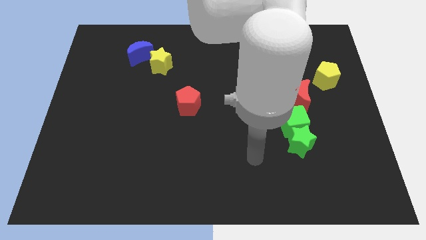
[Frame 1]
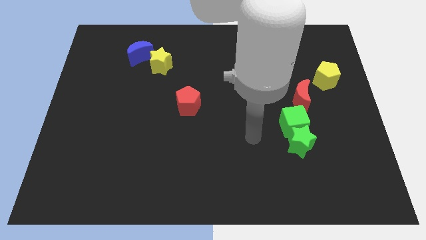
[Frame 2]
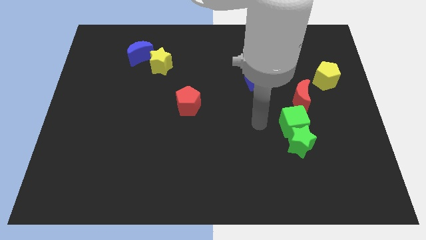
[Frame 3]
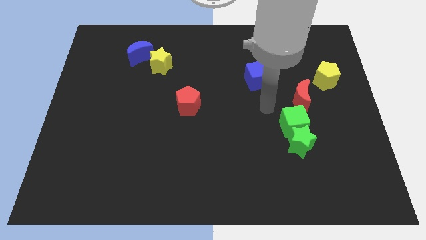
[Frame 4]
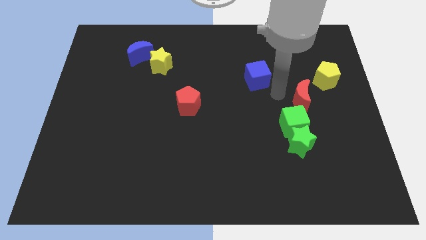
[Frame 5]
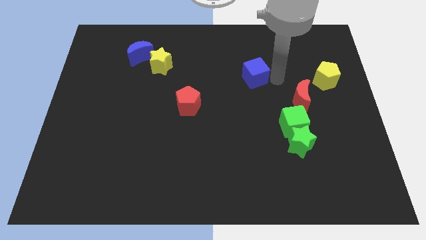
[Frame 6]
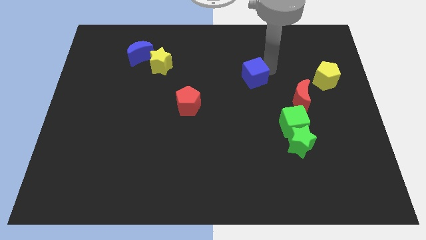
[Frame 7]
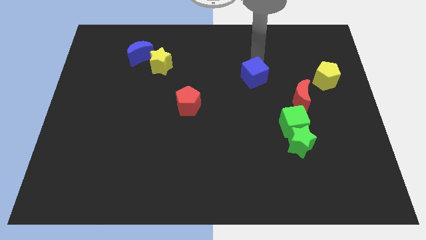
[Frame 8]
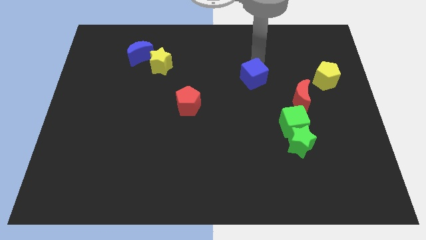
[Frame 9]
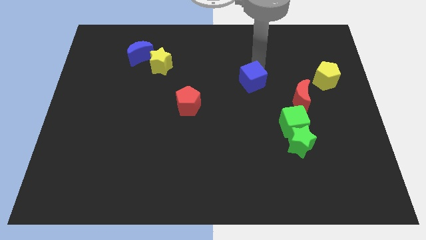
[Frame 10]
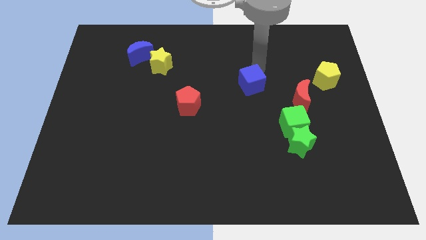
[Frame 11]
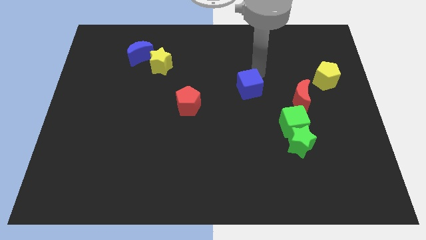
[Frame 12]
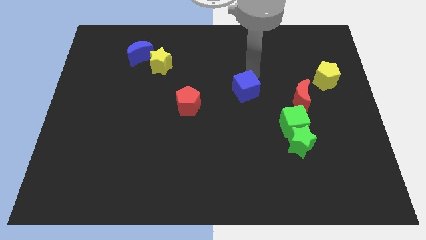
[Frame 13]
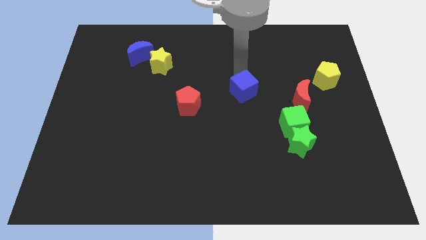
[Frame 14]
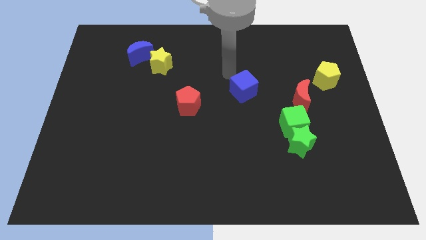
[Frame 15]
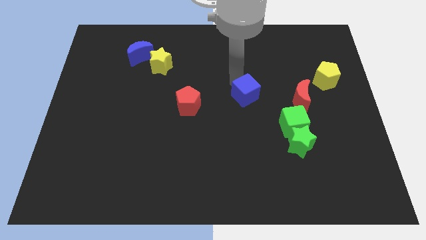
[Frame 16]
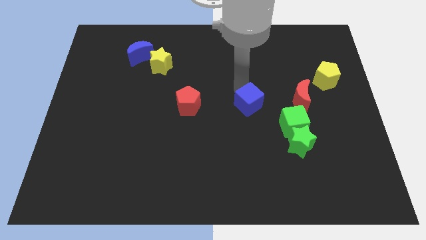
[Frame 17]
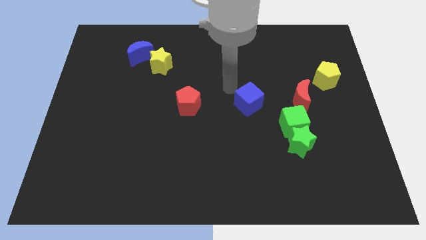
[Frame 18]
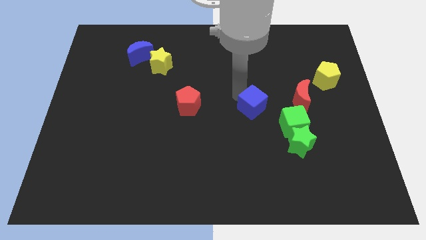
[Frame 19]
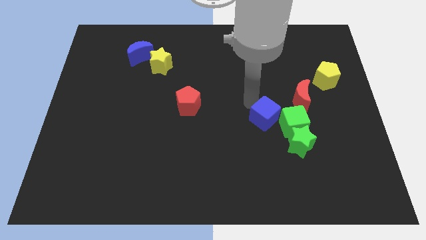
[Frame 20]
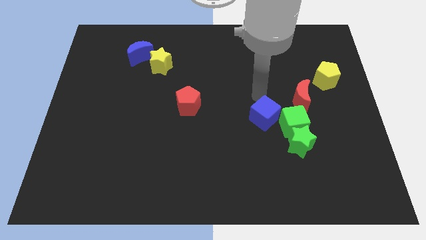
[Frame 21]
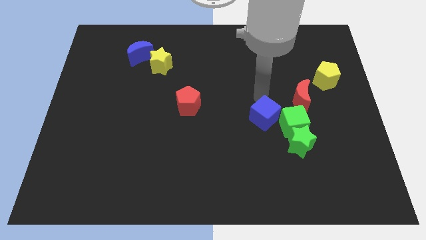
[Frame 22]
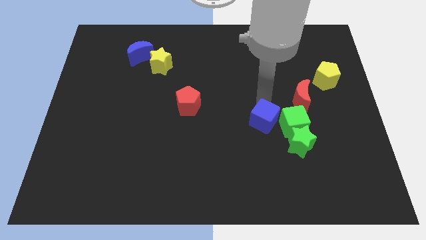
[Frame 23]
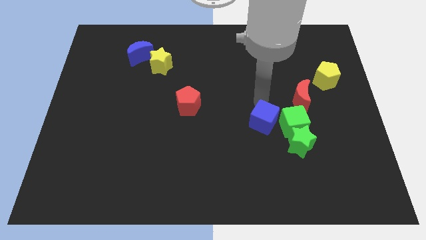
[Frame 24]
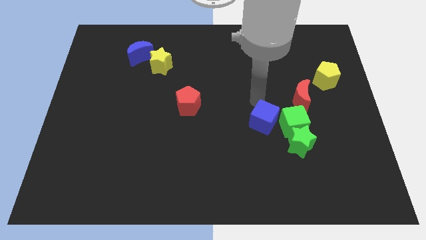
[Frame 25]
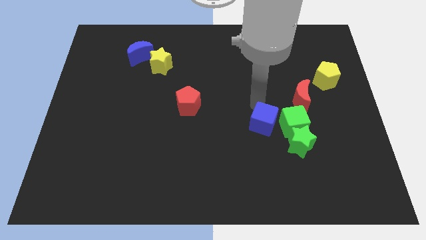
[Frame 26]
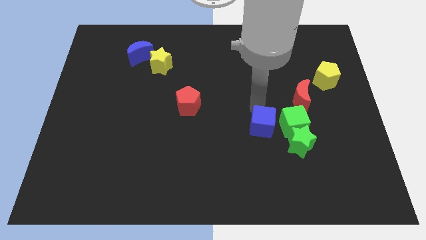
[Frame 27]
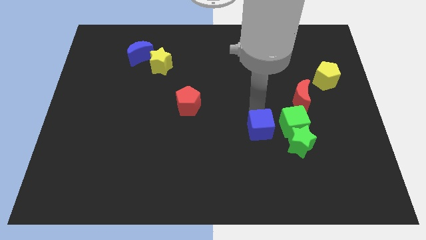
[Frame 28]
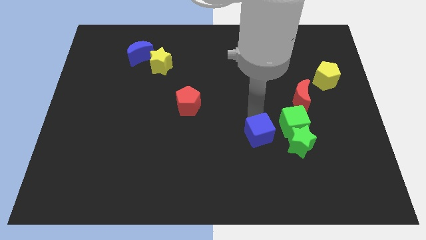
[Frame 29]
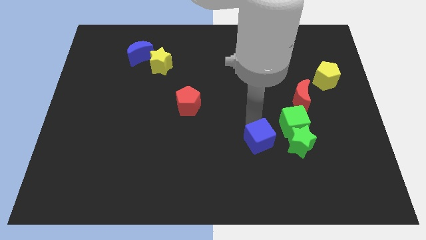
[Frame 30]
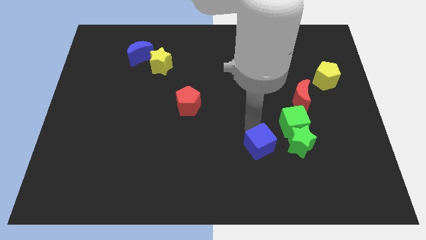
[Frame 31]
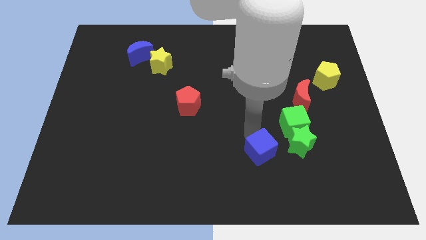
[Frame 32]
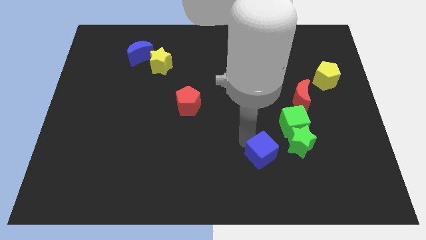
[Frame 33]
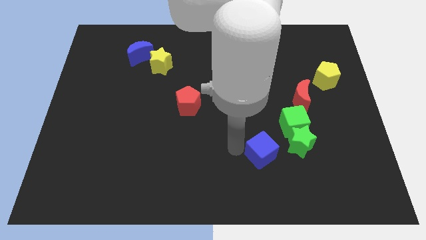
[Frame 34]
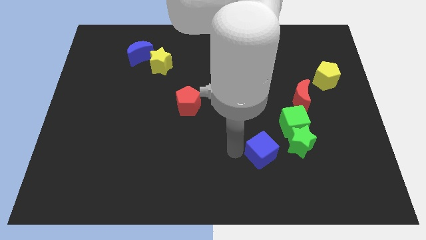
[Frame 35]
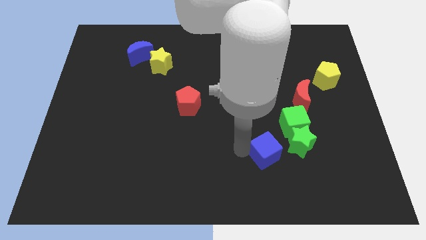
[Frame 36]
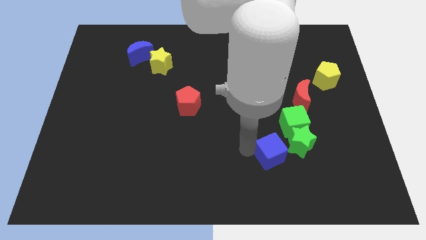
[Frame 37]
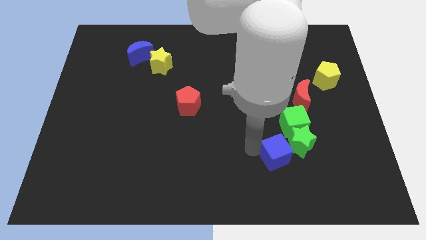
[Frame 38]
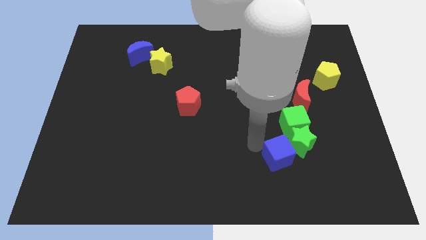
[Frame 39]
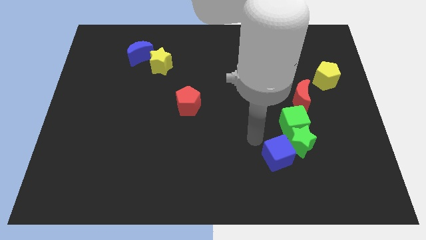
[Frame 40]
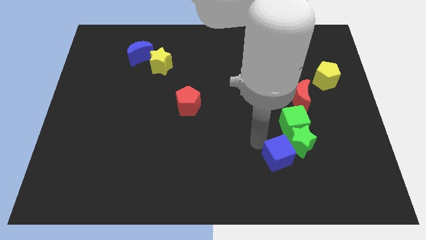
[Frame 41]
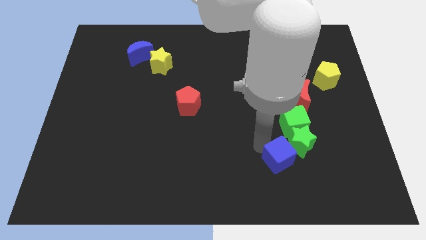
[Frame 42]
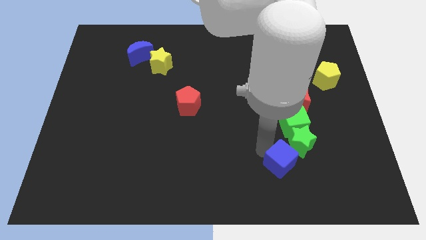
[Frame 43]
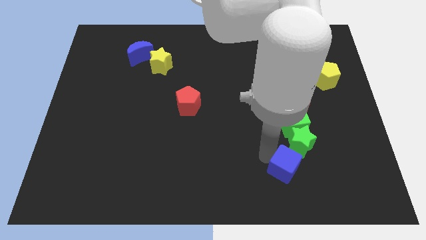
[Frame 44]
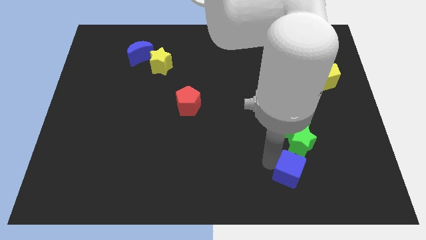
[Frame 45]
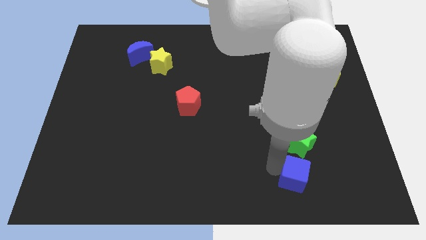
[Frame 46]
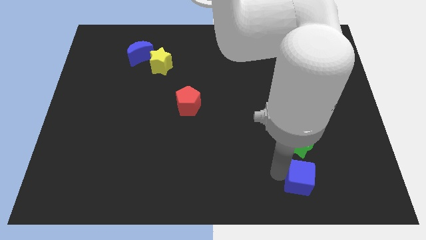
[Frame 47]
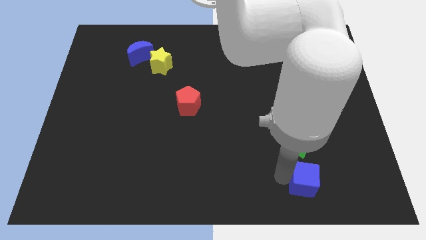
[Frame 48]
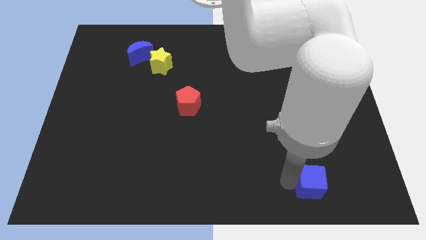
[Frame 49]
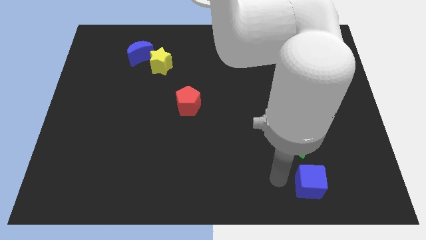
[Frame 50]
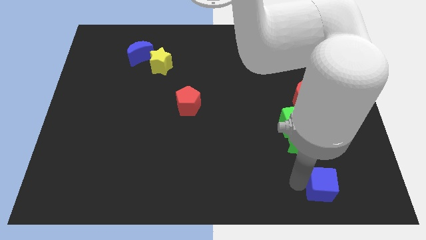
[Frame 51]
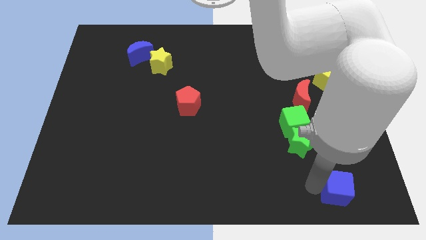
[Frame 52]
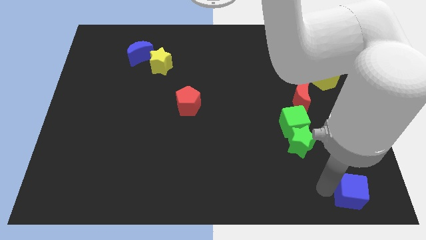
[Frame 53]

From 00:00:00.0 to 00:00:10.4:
push the blue cube to the lower right corner

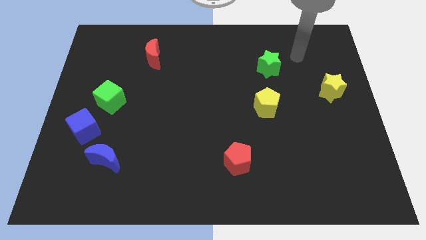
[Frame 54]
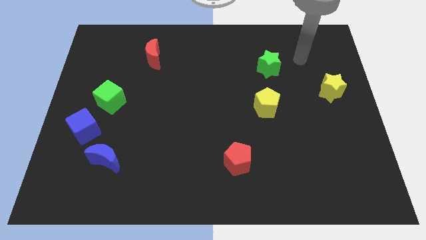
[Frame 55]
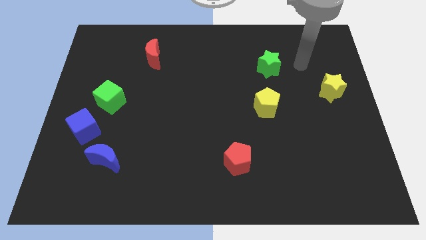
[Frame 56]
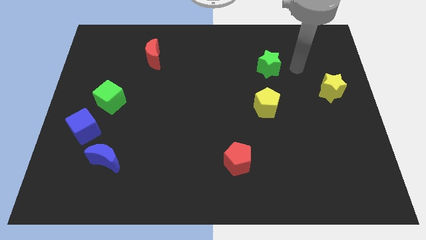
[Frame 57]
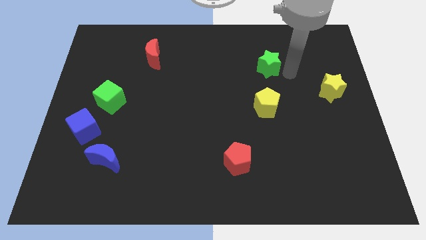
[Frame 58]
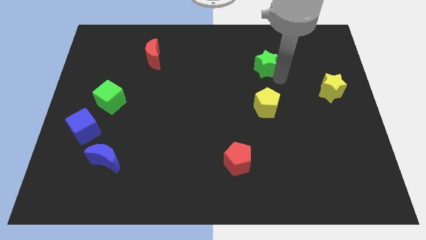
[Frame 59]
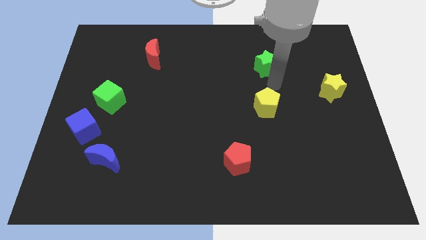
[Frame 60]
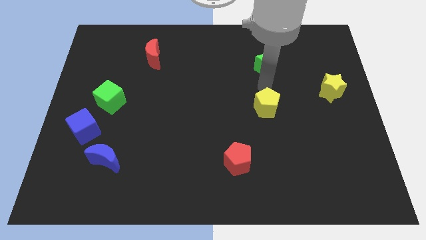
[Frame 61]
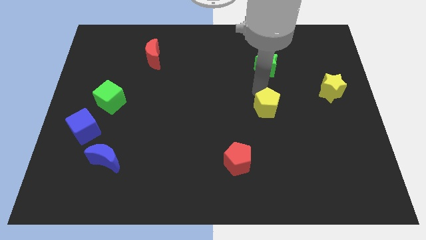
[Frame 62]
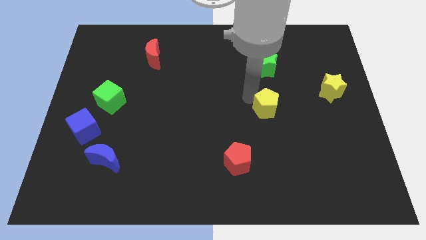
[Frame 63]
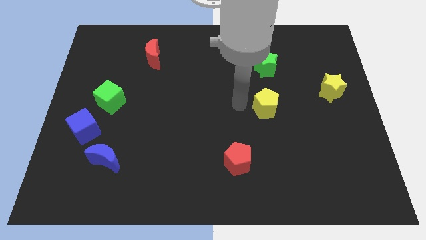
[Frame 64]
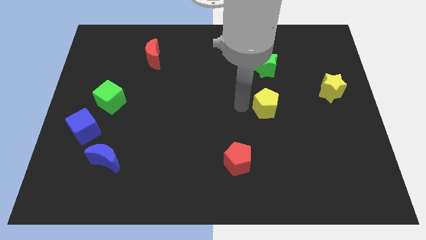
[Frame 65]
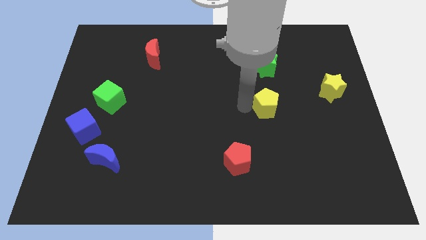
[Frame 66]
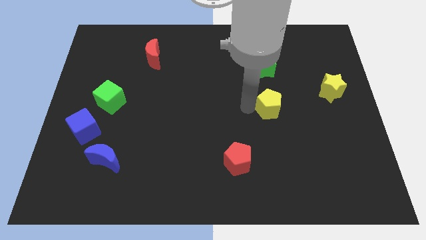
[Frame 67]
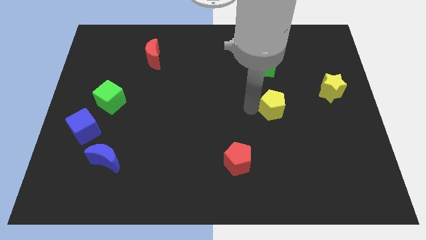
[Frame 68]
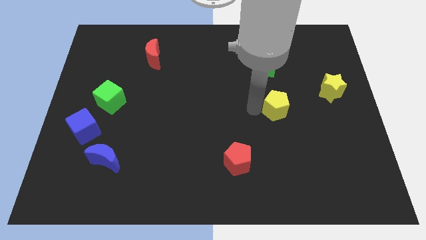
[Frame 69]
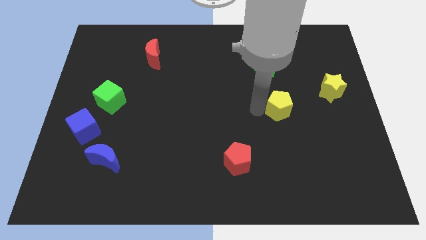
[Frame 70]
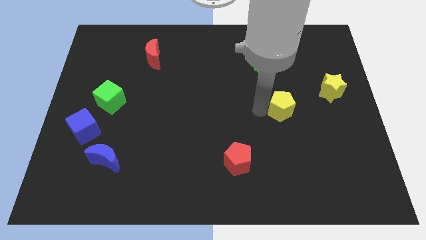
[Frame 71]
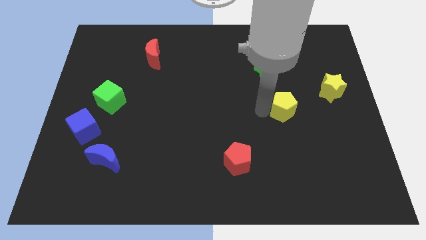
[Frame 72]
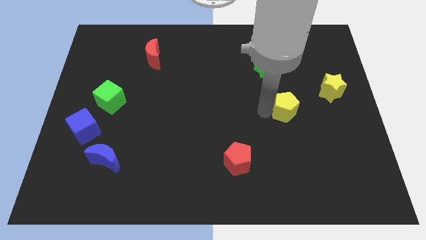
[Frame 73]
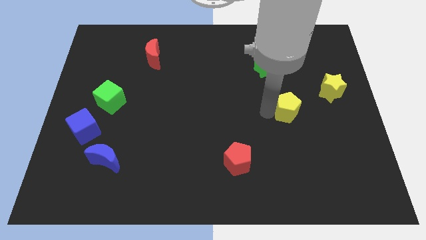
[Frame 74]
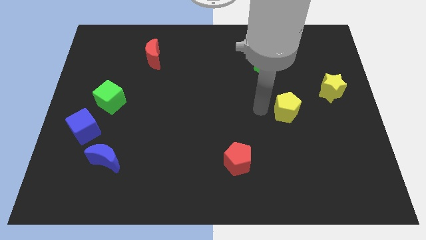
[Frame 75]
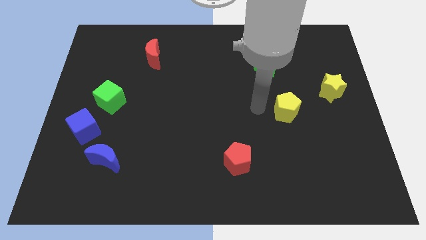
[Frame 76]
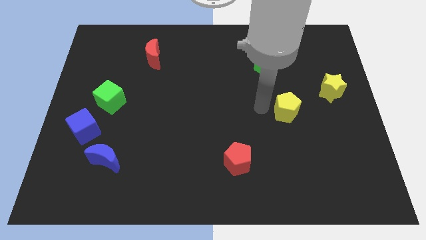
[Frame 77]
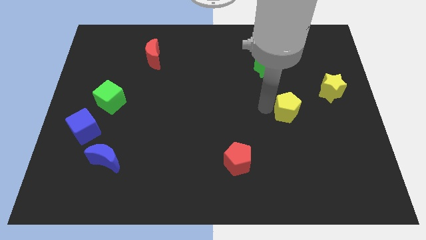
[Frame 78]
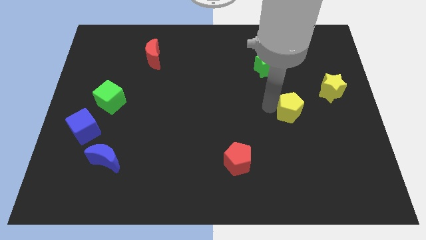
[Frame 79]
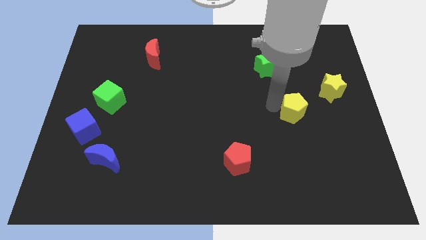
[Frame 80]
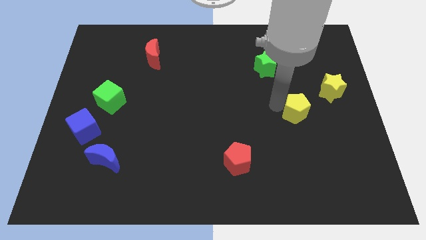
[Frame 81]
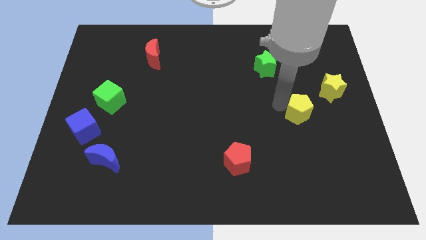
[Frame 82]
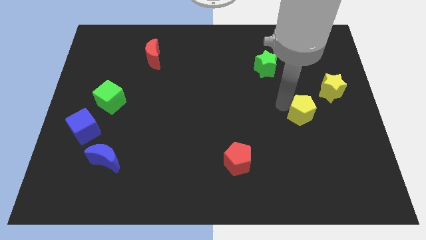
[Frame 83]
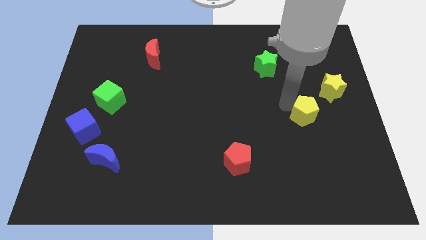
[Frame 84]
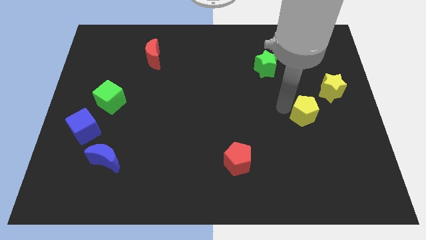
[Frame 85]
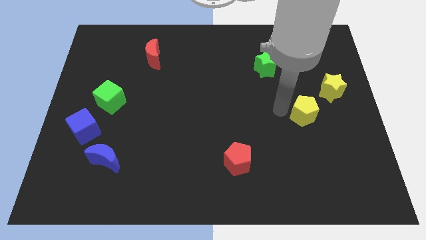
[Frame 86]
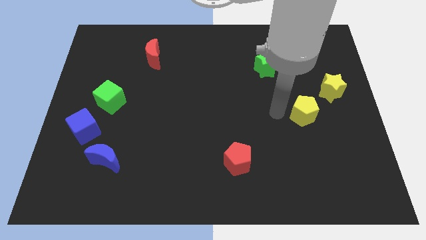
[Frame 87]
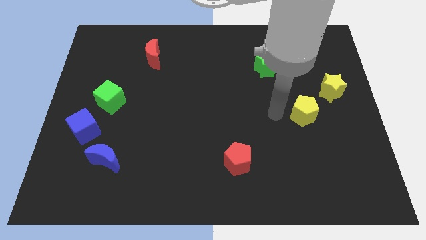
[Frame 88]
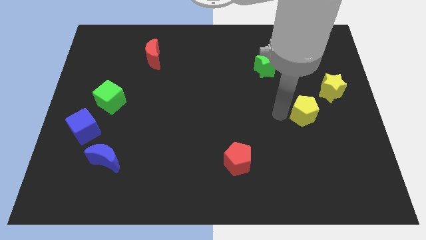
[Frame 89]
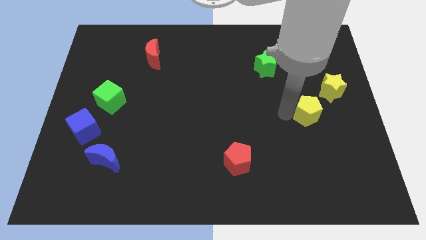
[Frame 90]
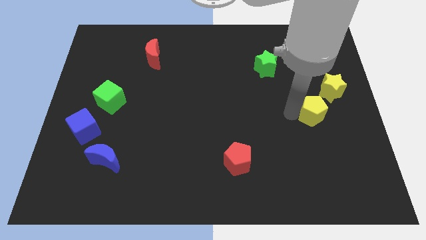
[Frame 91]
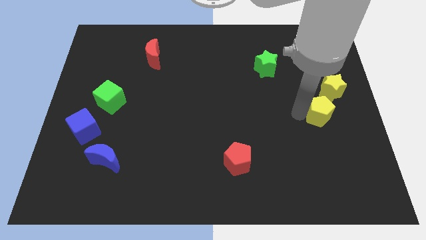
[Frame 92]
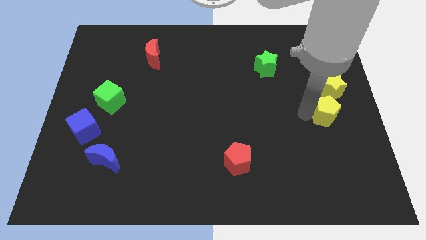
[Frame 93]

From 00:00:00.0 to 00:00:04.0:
move the yellow pentagon to the right side of the board
